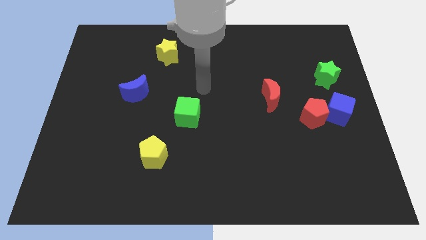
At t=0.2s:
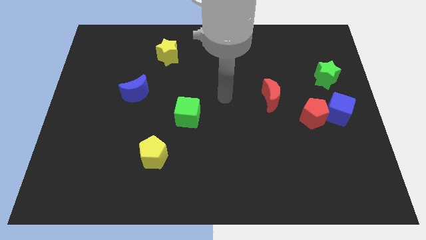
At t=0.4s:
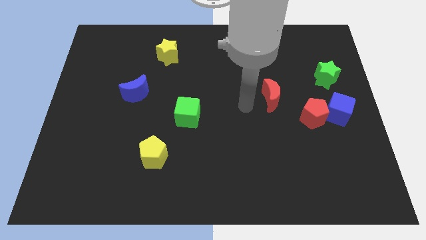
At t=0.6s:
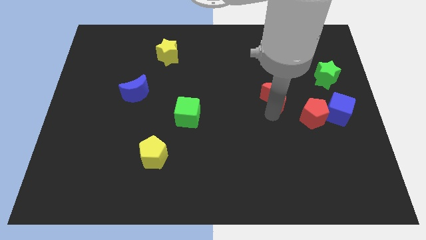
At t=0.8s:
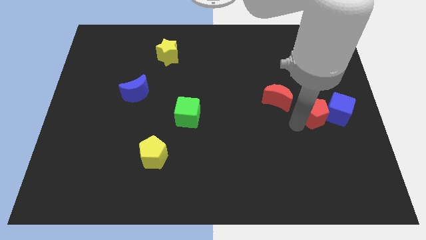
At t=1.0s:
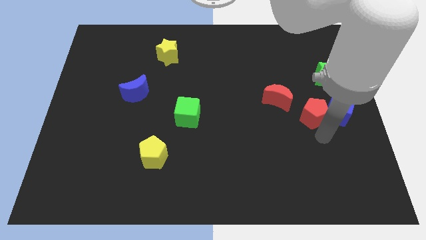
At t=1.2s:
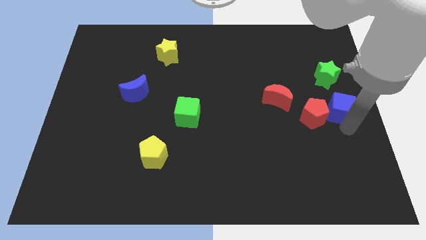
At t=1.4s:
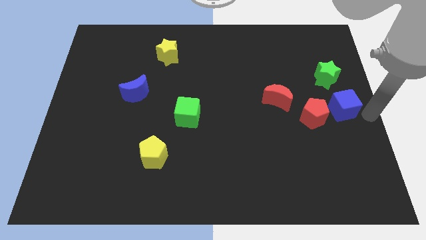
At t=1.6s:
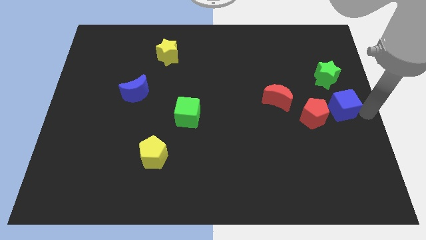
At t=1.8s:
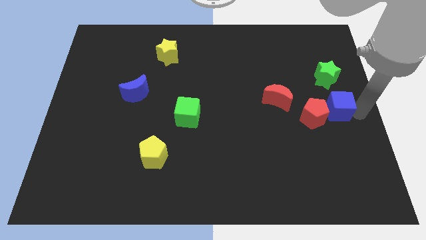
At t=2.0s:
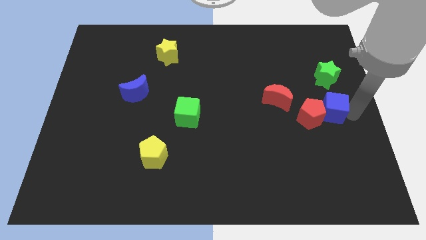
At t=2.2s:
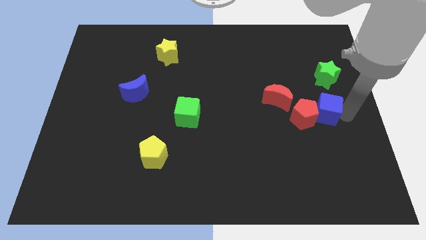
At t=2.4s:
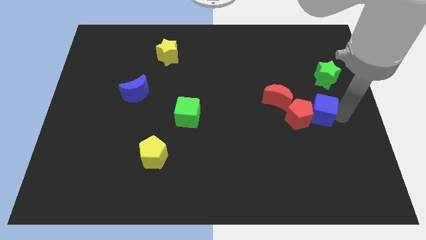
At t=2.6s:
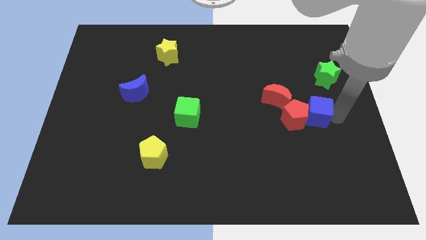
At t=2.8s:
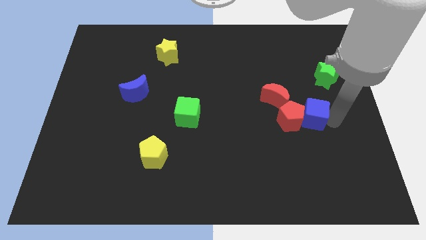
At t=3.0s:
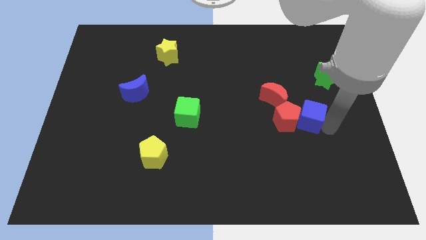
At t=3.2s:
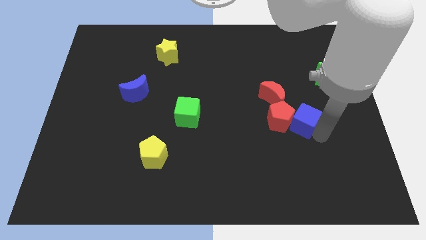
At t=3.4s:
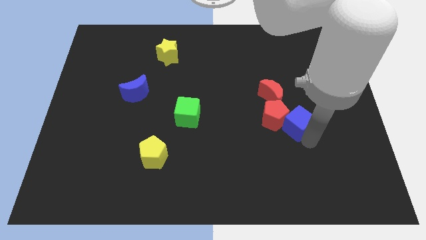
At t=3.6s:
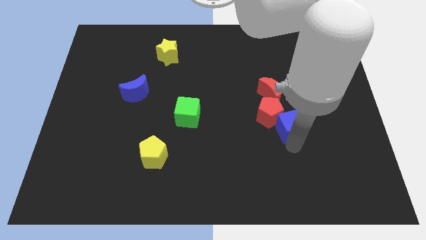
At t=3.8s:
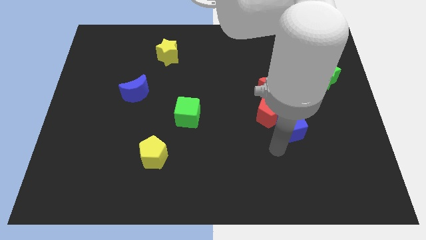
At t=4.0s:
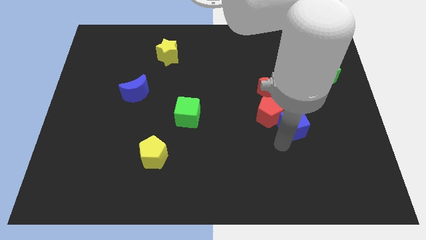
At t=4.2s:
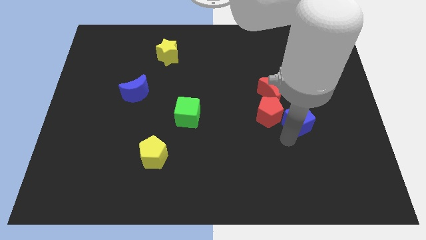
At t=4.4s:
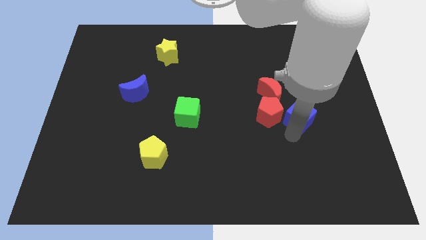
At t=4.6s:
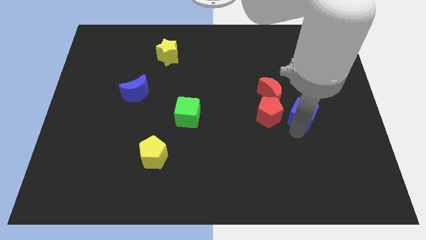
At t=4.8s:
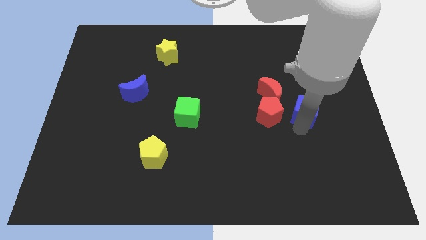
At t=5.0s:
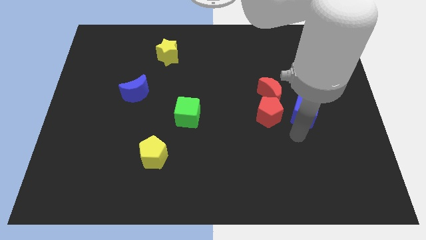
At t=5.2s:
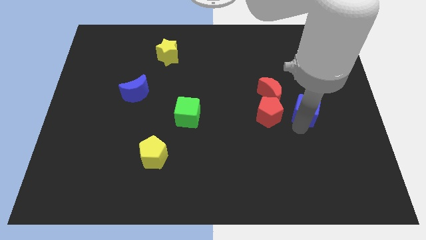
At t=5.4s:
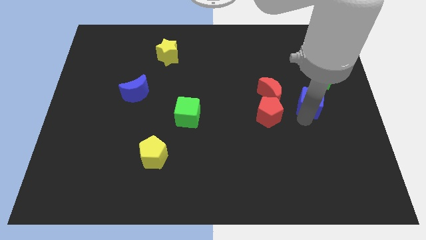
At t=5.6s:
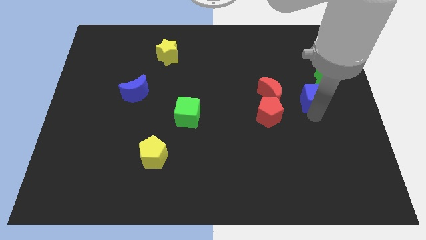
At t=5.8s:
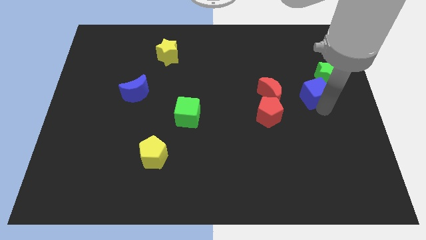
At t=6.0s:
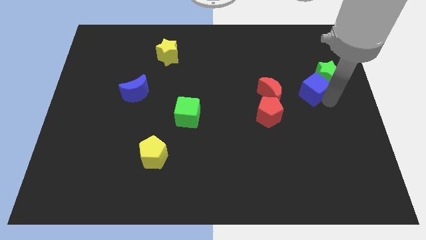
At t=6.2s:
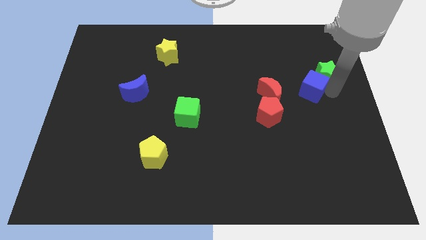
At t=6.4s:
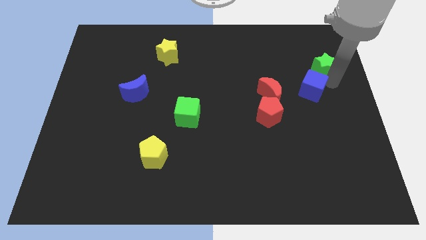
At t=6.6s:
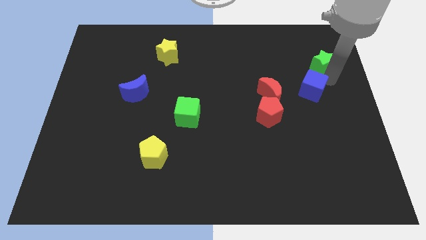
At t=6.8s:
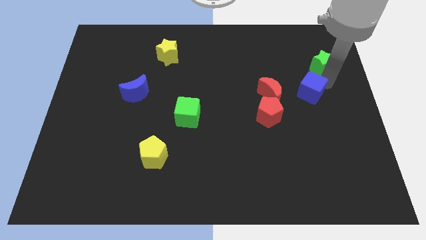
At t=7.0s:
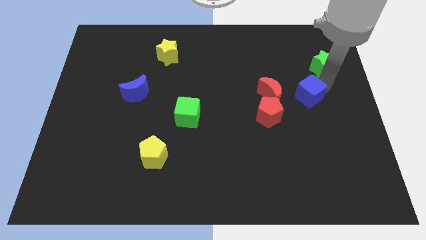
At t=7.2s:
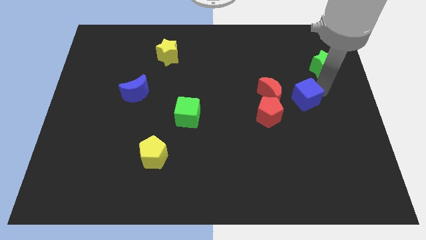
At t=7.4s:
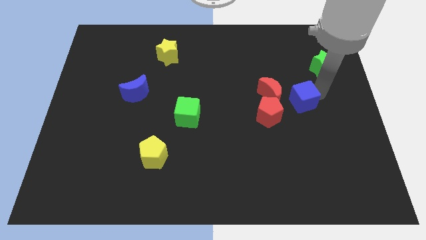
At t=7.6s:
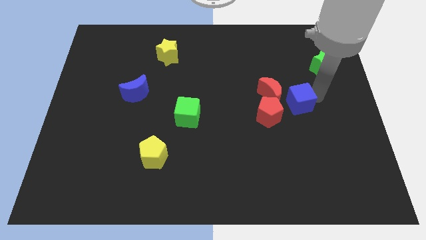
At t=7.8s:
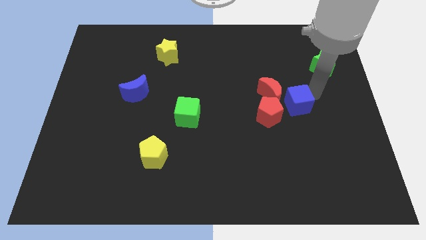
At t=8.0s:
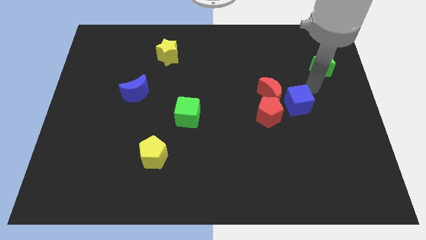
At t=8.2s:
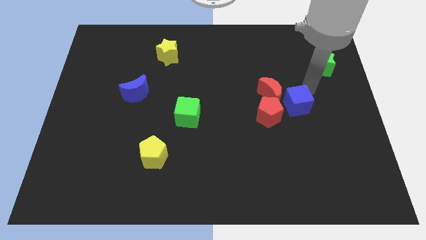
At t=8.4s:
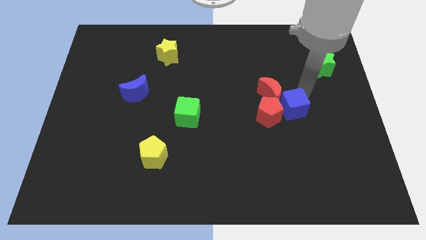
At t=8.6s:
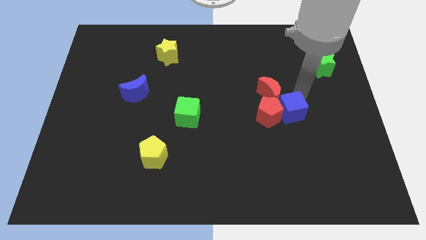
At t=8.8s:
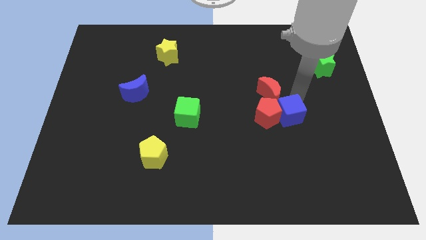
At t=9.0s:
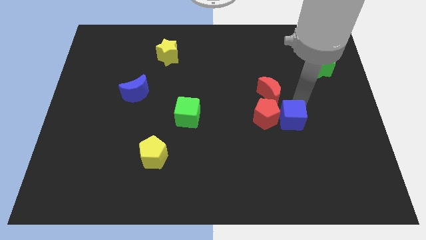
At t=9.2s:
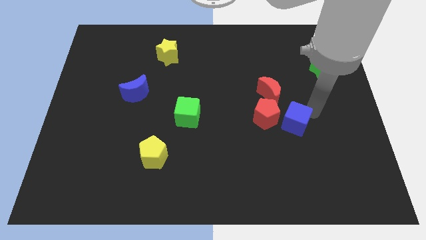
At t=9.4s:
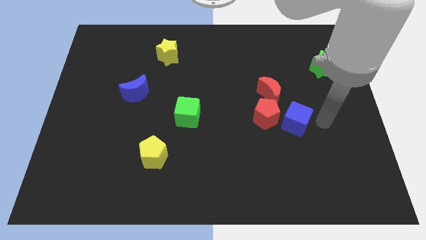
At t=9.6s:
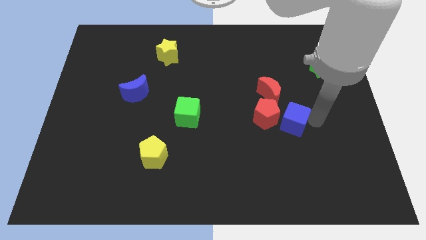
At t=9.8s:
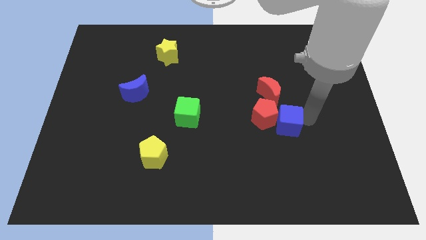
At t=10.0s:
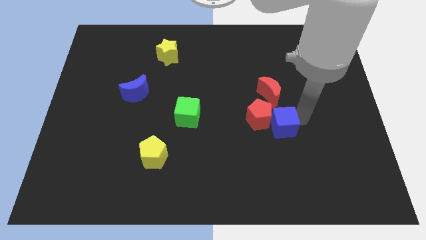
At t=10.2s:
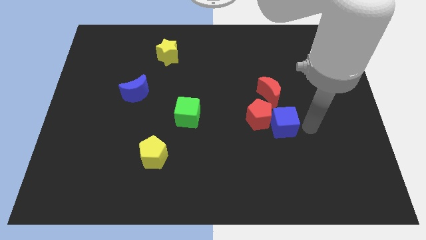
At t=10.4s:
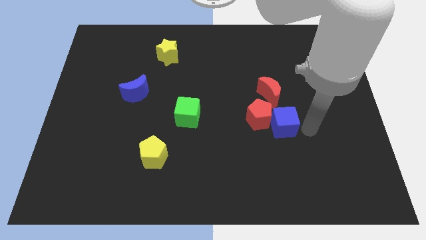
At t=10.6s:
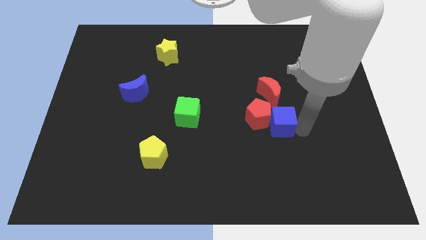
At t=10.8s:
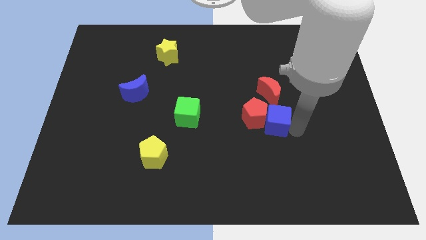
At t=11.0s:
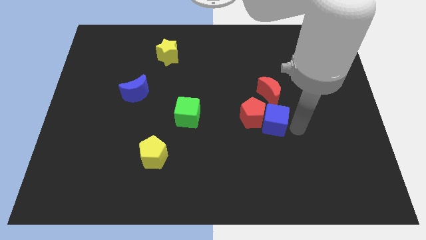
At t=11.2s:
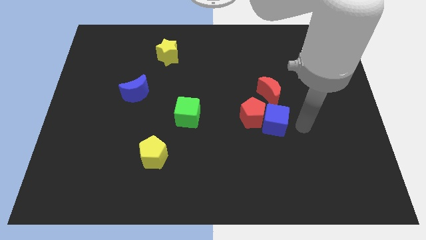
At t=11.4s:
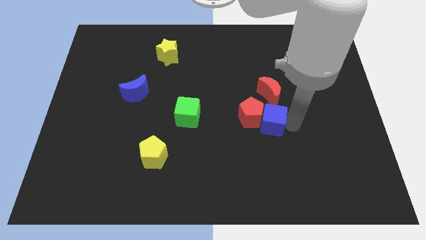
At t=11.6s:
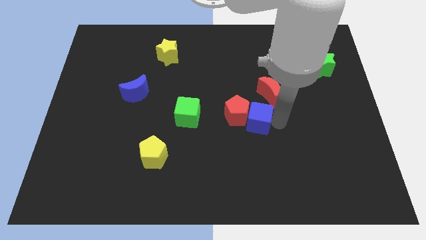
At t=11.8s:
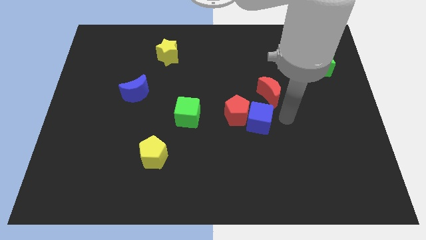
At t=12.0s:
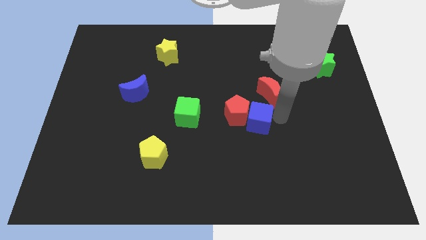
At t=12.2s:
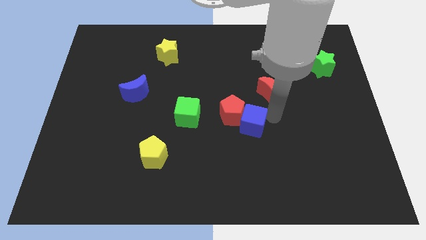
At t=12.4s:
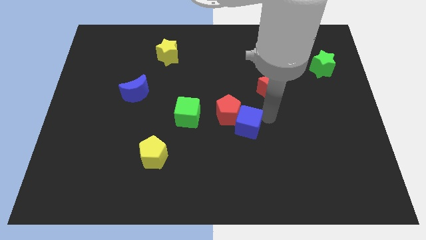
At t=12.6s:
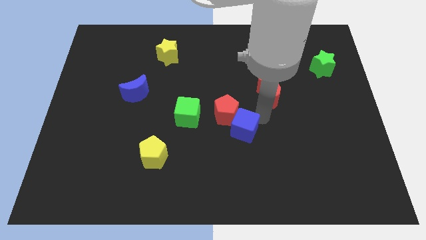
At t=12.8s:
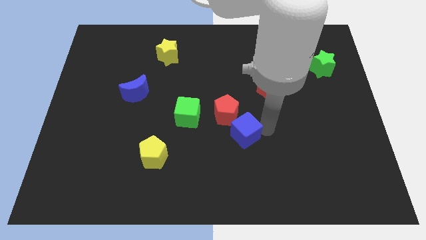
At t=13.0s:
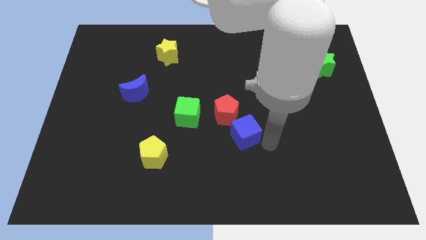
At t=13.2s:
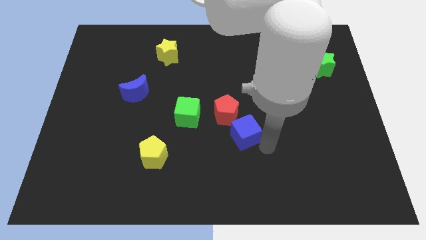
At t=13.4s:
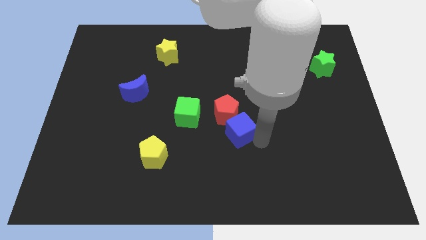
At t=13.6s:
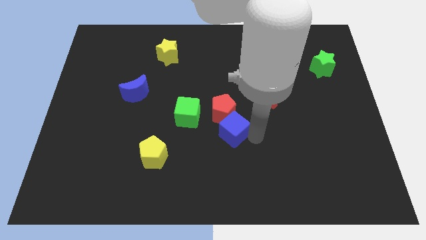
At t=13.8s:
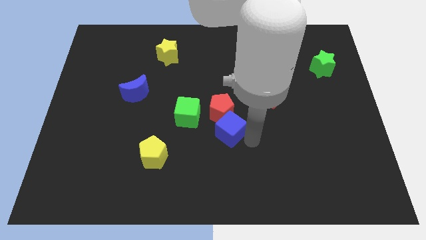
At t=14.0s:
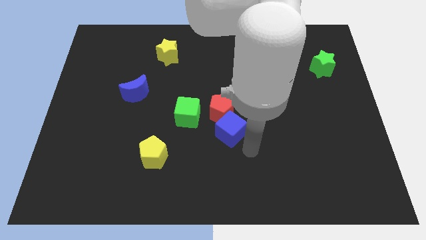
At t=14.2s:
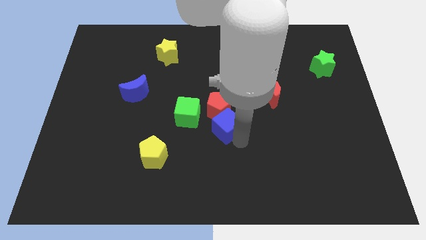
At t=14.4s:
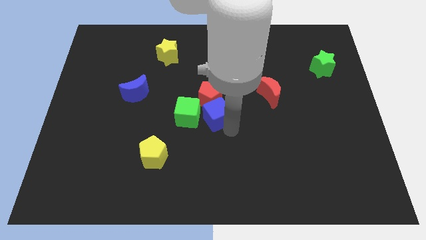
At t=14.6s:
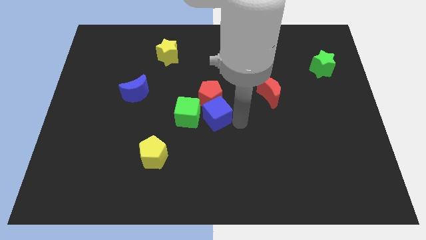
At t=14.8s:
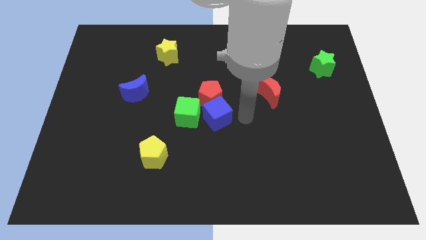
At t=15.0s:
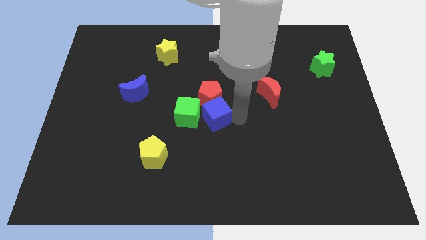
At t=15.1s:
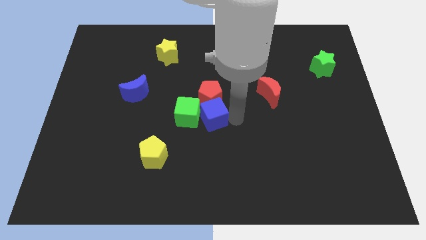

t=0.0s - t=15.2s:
put the blue cube close to the green cube
